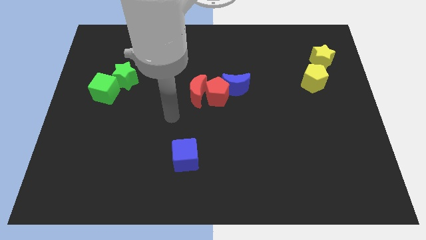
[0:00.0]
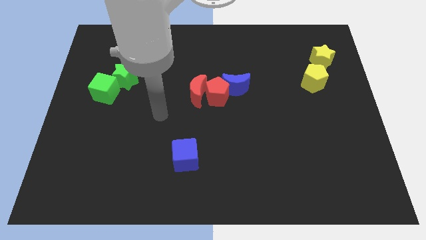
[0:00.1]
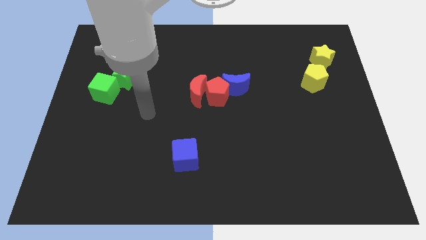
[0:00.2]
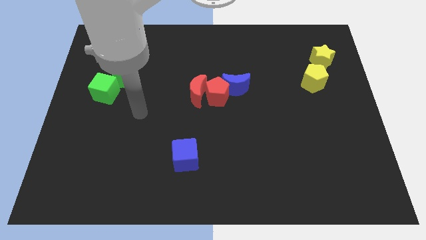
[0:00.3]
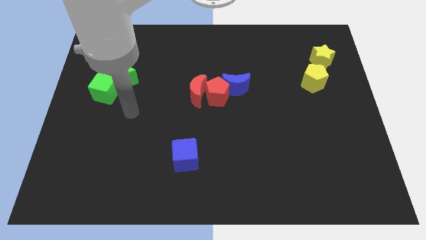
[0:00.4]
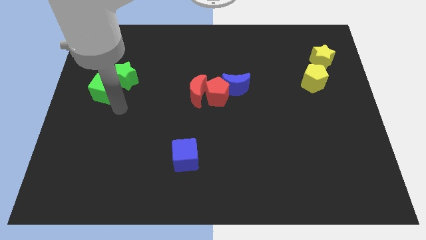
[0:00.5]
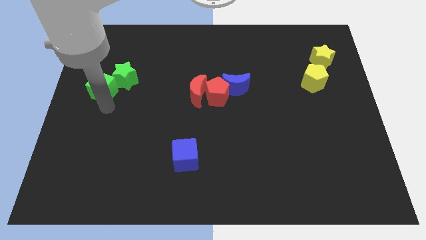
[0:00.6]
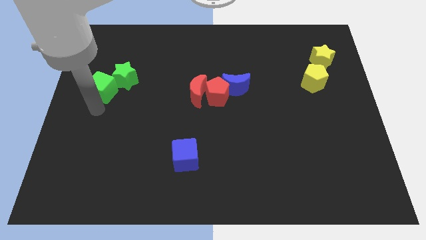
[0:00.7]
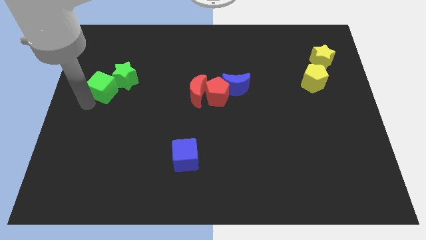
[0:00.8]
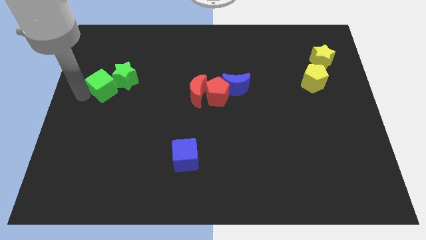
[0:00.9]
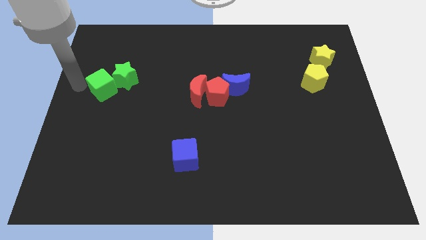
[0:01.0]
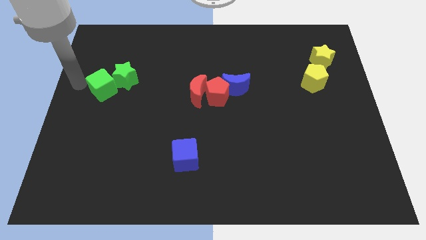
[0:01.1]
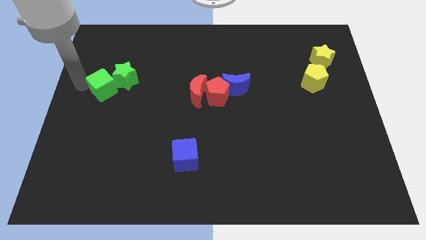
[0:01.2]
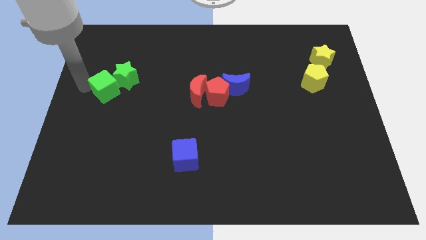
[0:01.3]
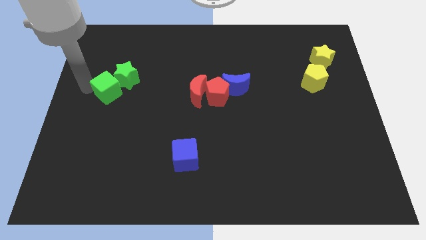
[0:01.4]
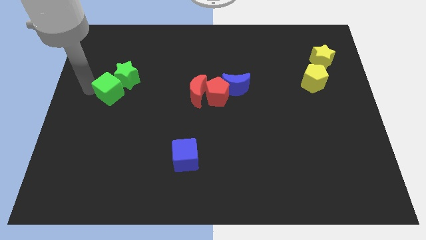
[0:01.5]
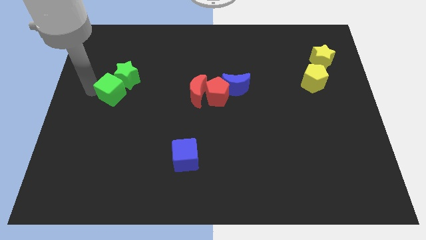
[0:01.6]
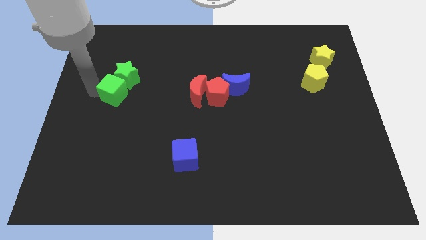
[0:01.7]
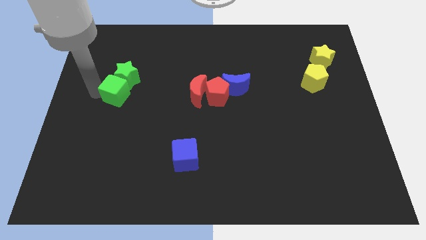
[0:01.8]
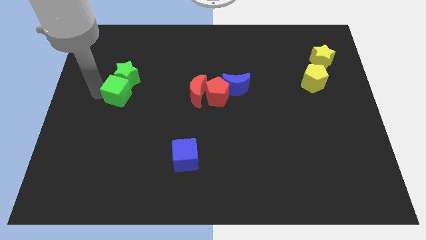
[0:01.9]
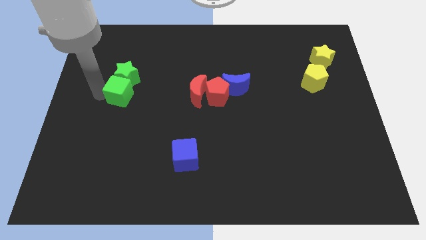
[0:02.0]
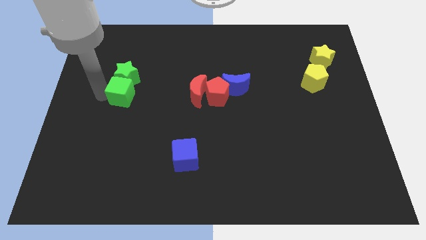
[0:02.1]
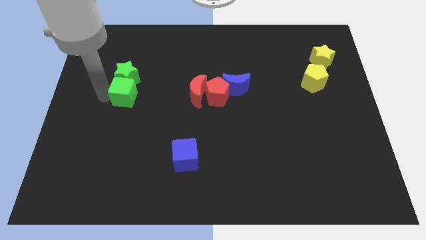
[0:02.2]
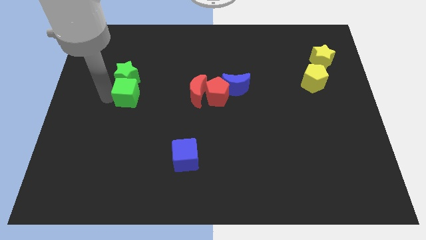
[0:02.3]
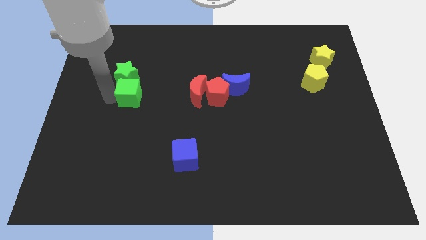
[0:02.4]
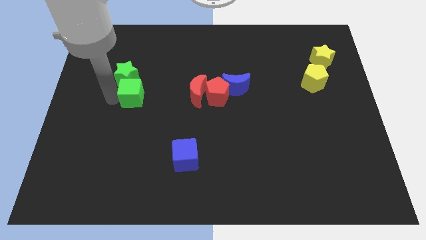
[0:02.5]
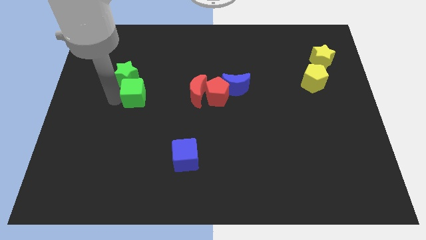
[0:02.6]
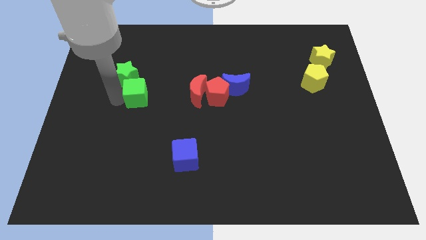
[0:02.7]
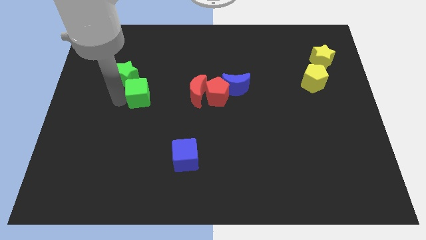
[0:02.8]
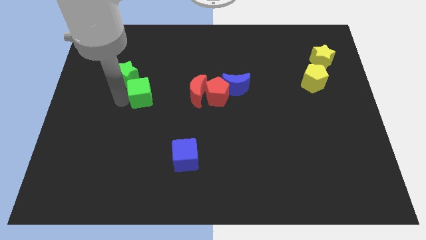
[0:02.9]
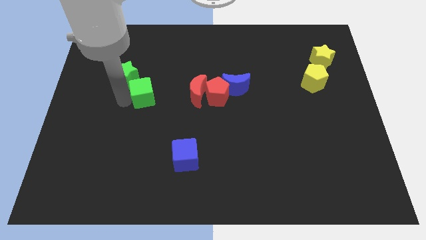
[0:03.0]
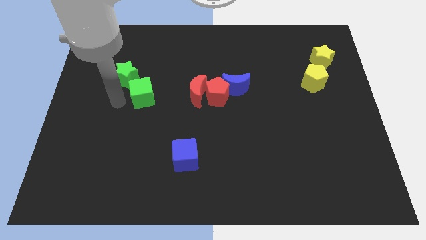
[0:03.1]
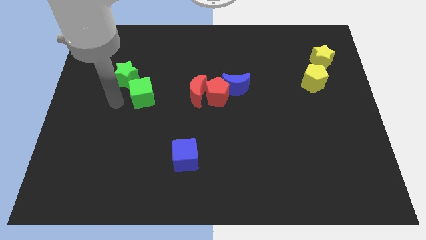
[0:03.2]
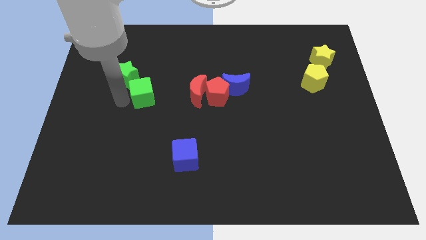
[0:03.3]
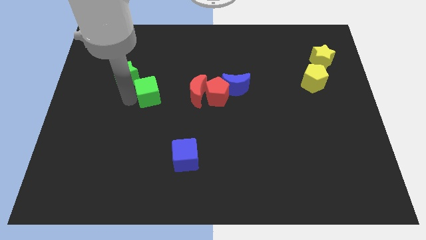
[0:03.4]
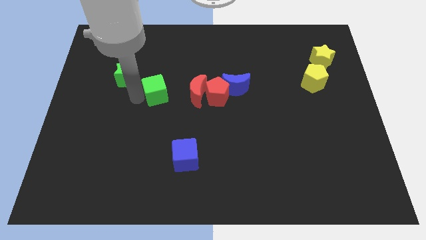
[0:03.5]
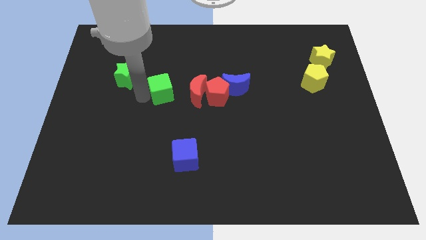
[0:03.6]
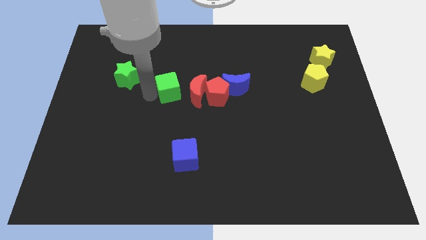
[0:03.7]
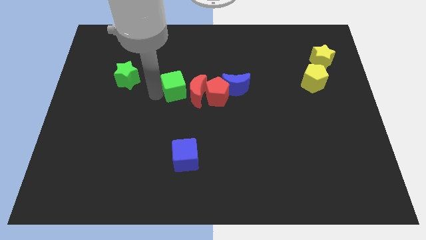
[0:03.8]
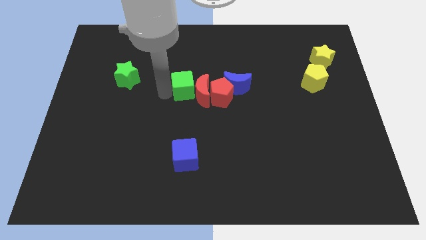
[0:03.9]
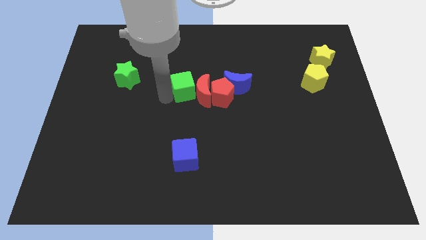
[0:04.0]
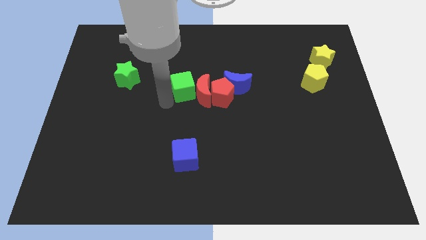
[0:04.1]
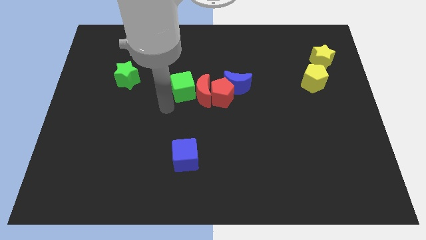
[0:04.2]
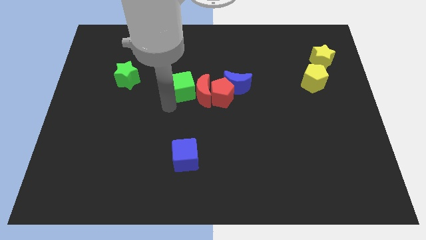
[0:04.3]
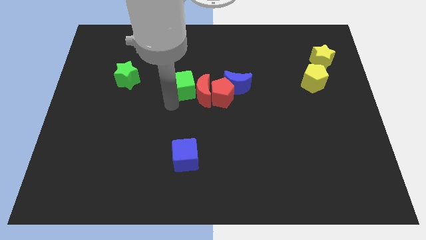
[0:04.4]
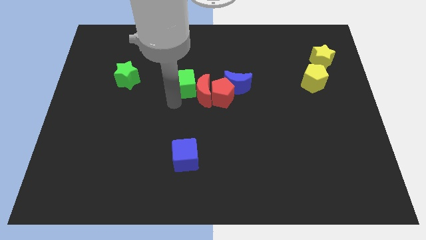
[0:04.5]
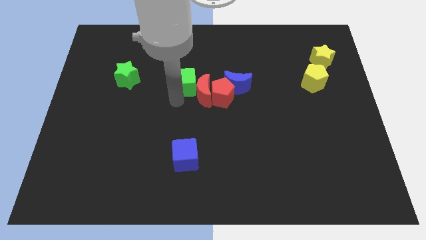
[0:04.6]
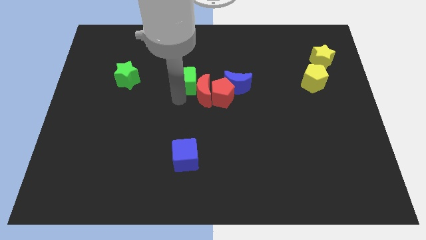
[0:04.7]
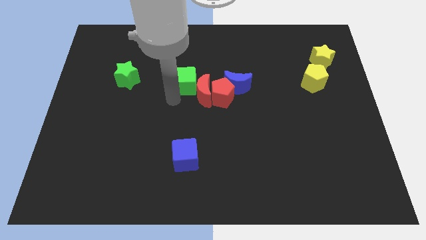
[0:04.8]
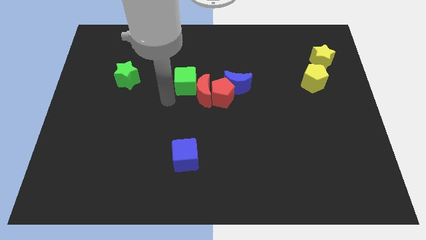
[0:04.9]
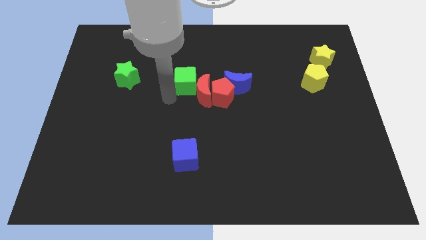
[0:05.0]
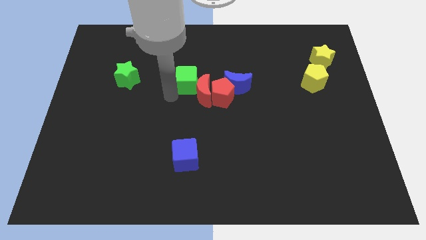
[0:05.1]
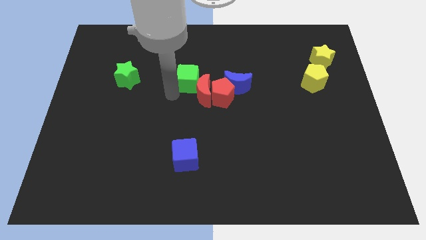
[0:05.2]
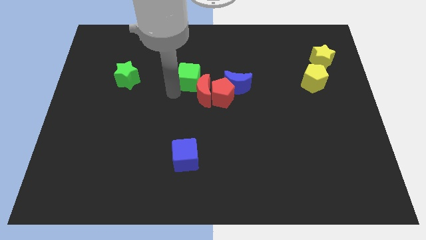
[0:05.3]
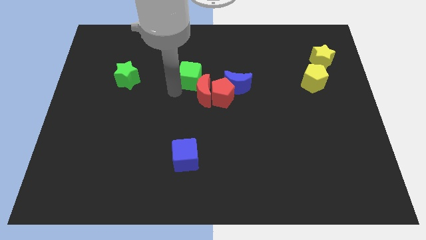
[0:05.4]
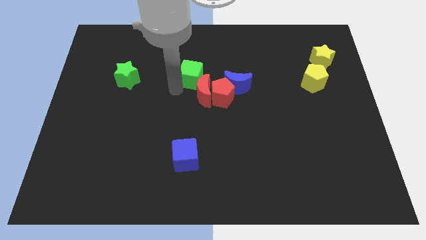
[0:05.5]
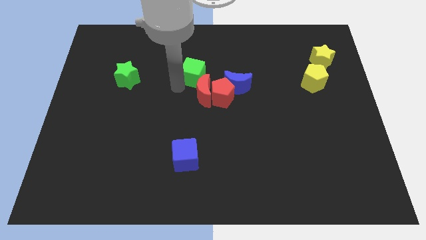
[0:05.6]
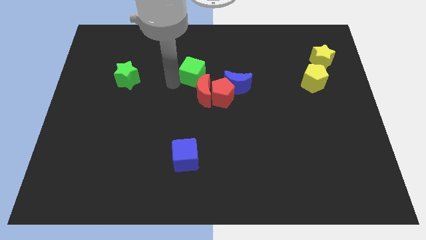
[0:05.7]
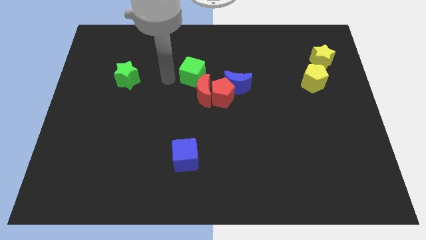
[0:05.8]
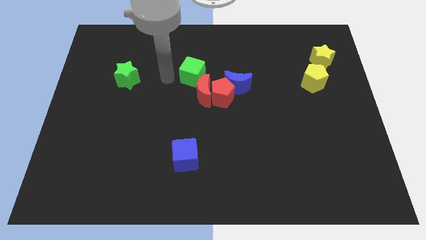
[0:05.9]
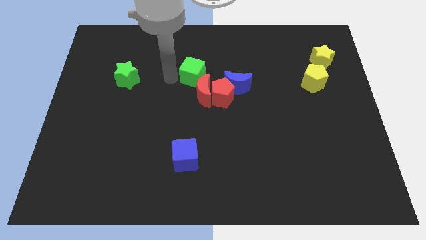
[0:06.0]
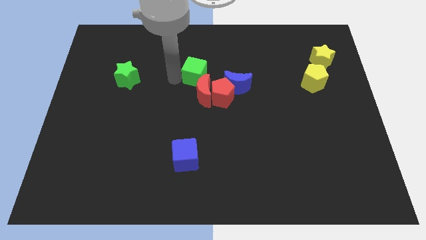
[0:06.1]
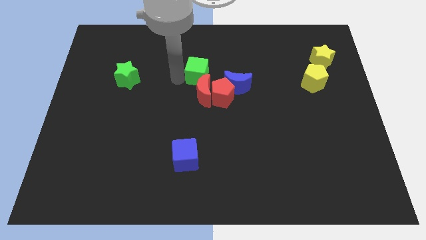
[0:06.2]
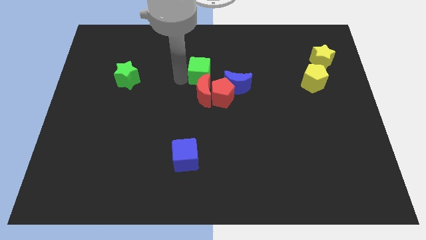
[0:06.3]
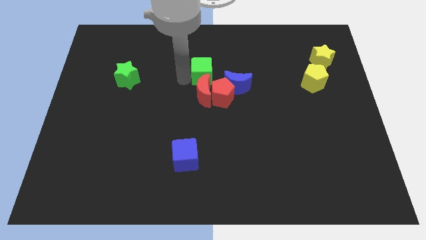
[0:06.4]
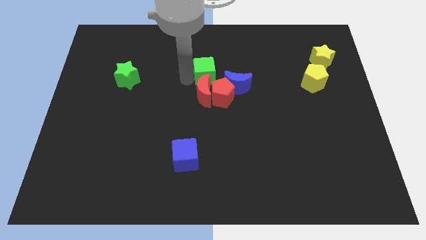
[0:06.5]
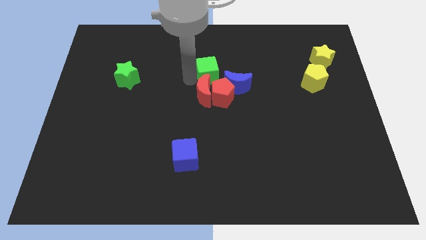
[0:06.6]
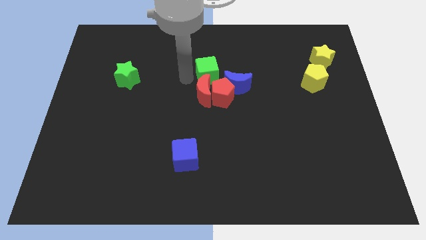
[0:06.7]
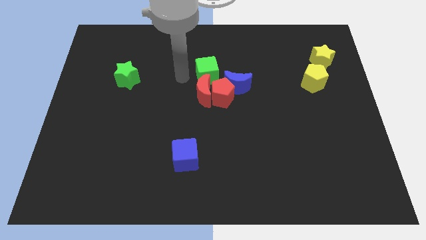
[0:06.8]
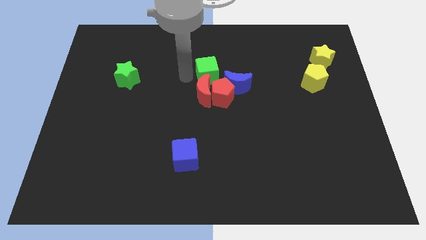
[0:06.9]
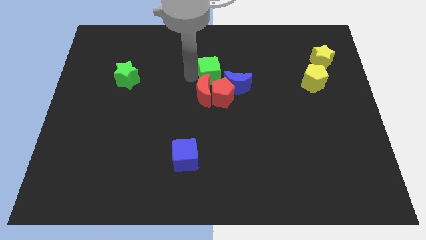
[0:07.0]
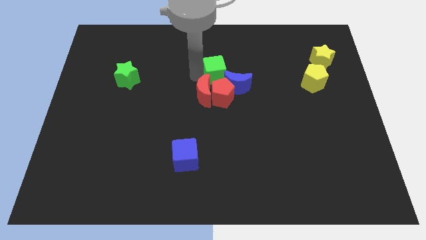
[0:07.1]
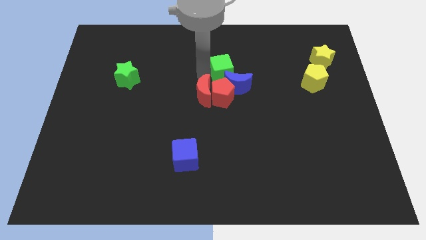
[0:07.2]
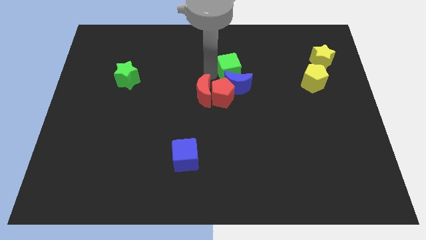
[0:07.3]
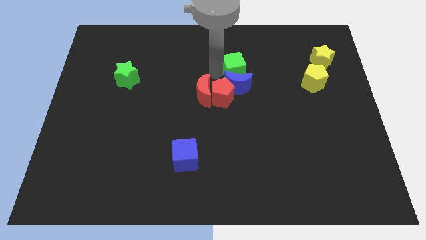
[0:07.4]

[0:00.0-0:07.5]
slide the green cube to the top right of the blue moon
